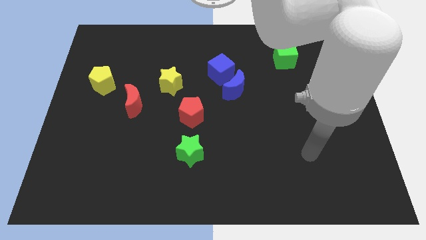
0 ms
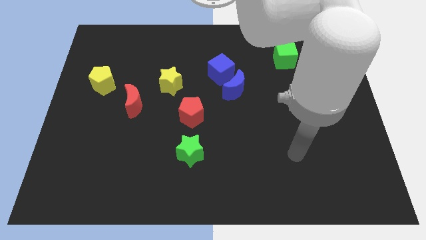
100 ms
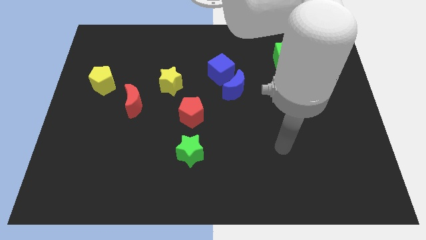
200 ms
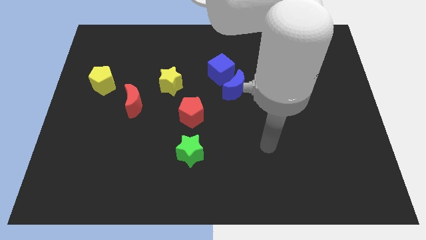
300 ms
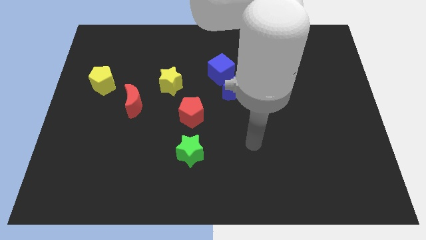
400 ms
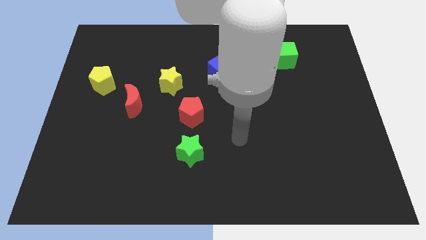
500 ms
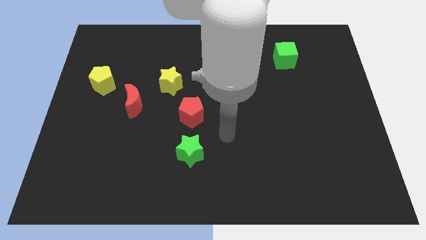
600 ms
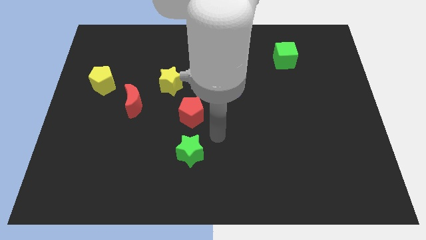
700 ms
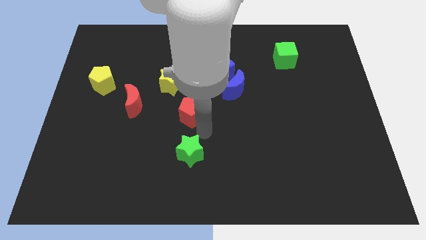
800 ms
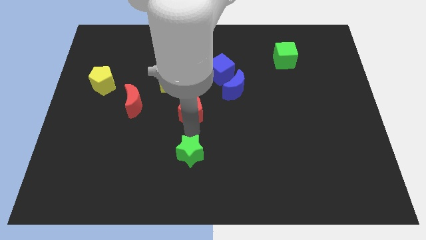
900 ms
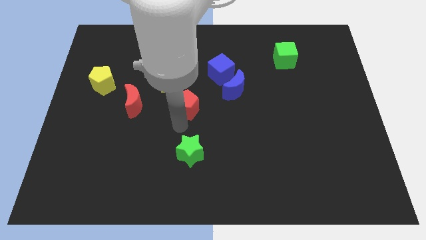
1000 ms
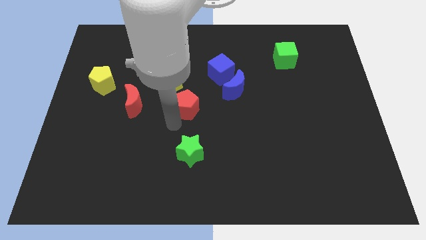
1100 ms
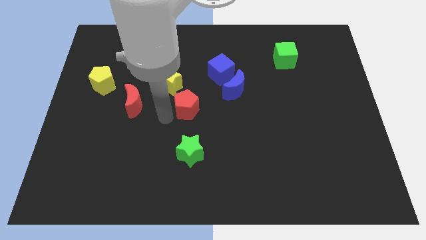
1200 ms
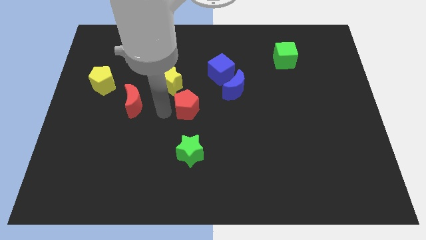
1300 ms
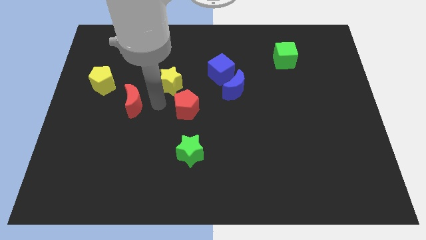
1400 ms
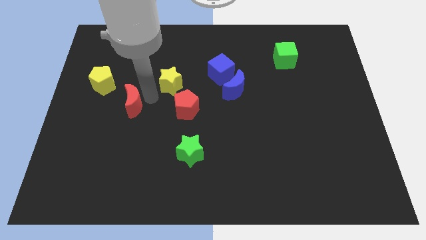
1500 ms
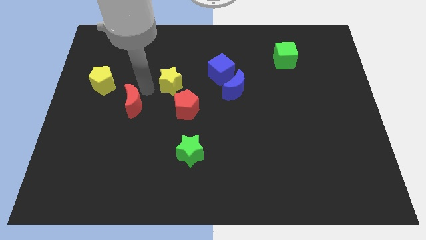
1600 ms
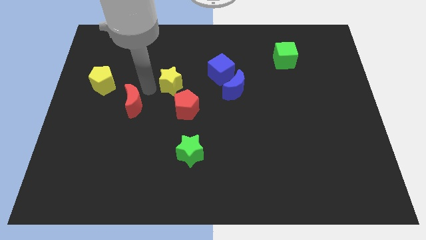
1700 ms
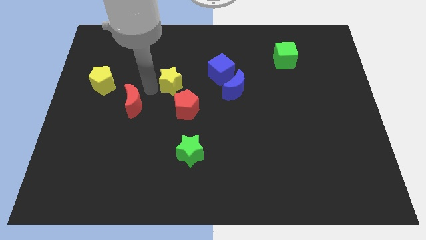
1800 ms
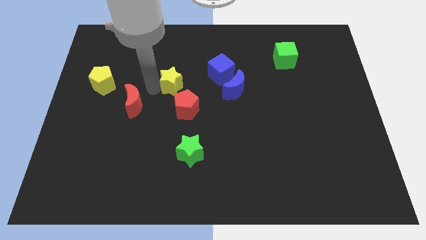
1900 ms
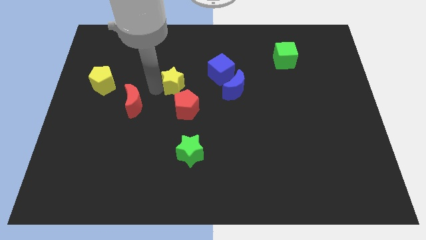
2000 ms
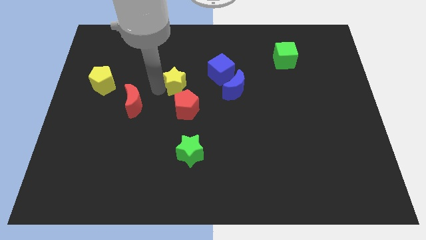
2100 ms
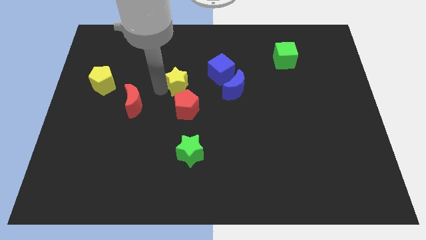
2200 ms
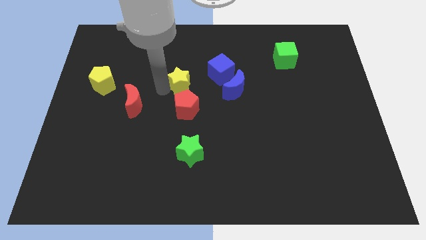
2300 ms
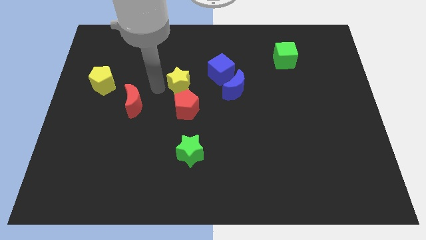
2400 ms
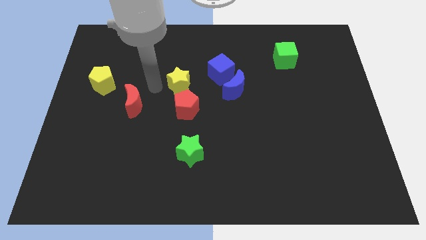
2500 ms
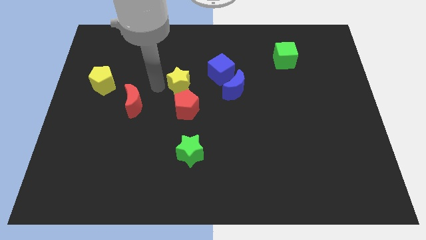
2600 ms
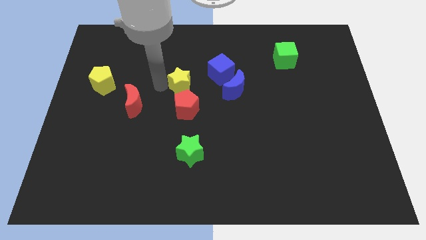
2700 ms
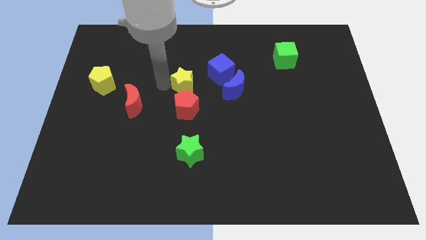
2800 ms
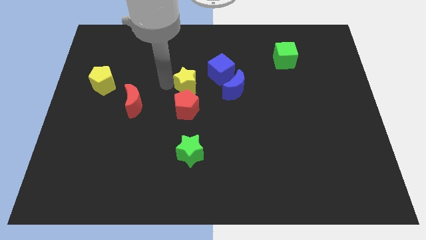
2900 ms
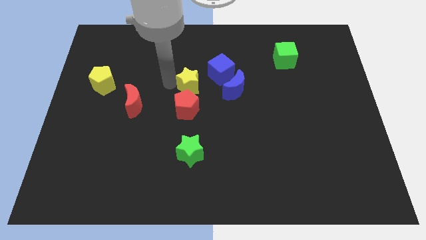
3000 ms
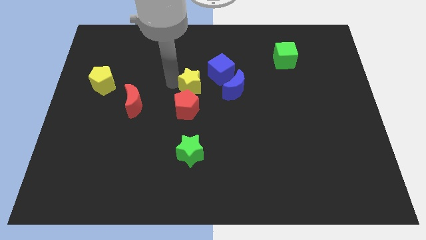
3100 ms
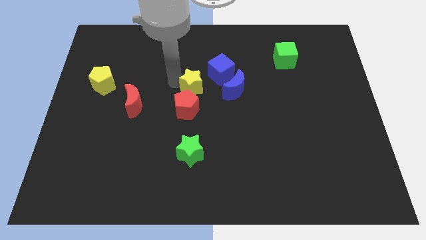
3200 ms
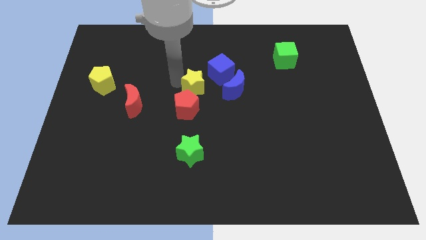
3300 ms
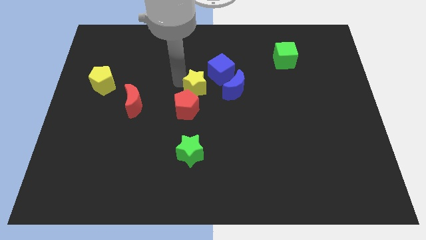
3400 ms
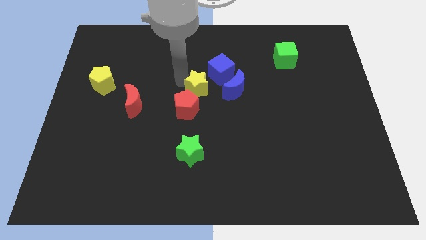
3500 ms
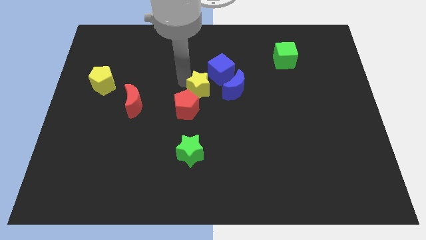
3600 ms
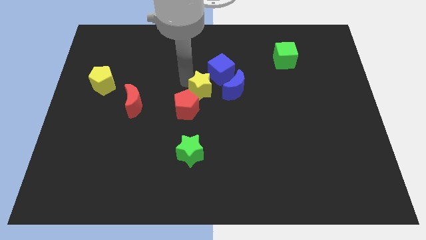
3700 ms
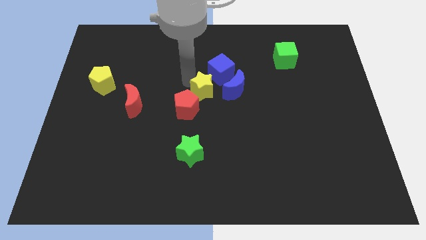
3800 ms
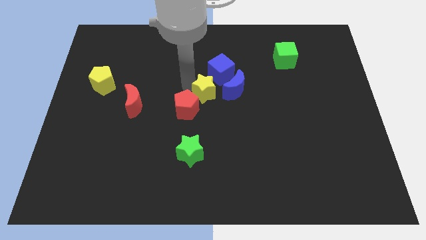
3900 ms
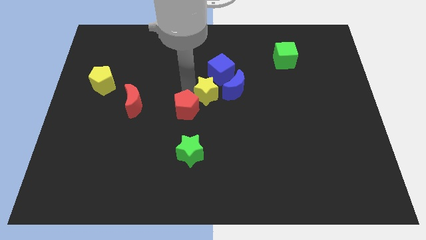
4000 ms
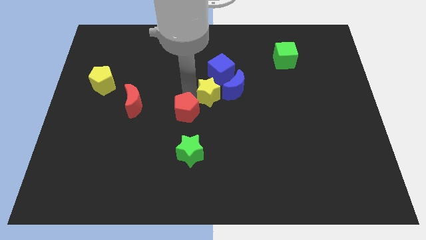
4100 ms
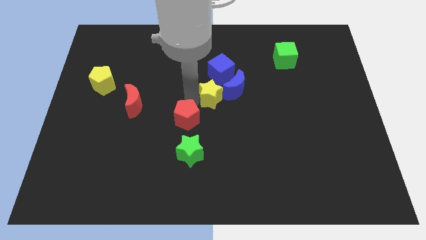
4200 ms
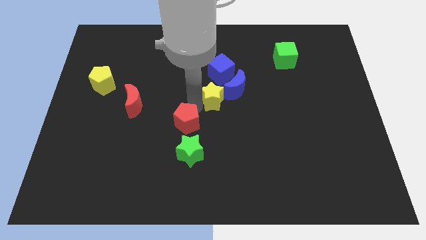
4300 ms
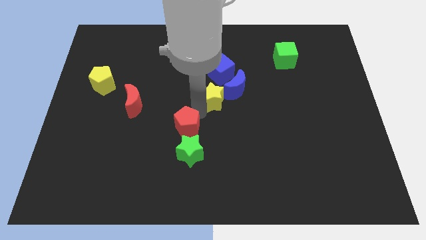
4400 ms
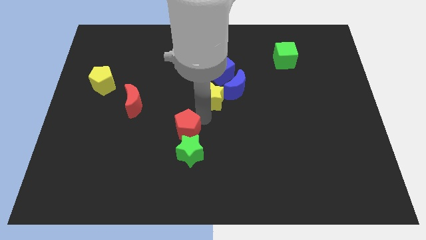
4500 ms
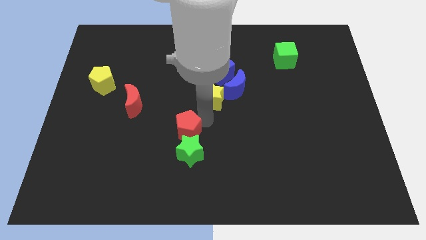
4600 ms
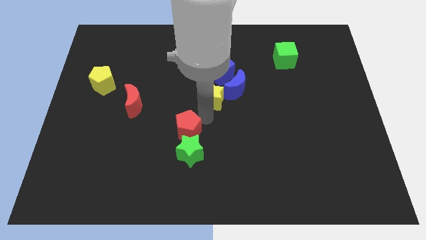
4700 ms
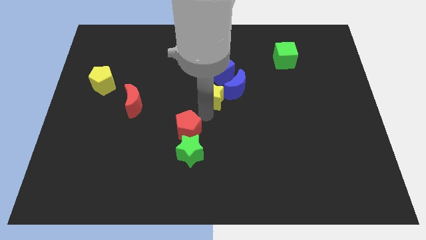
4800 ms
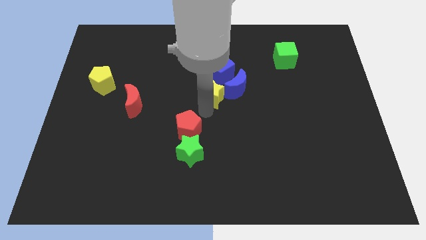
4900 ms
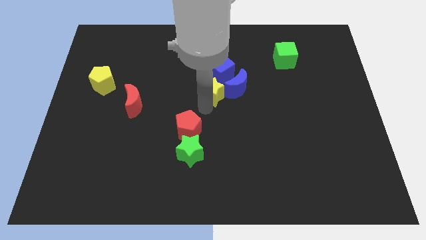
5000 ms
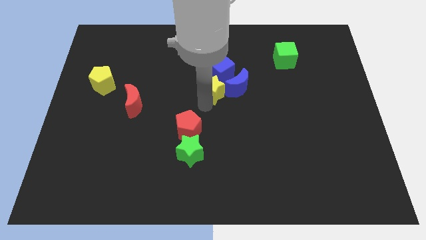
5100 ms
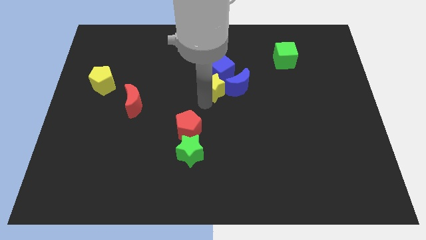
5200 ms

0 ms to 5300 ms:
push the yellow star next to the blue cube

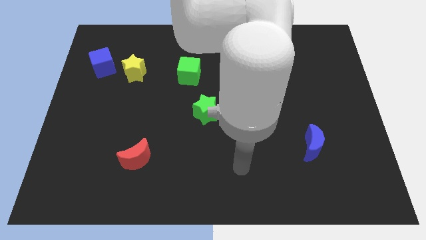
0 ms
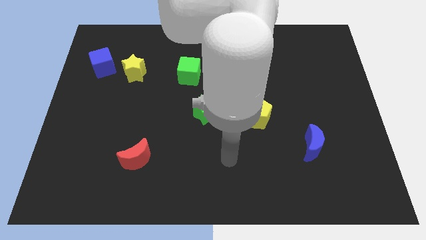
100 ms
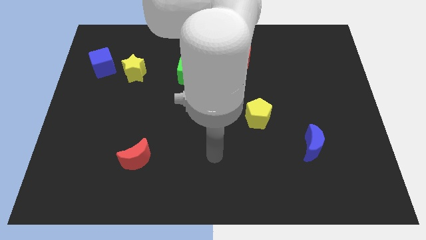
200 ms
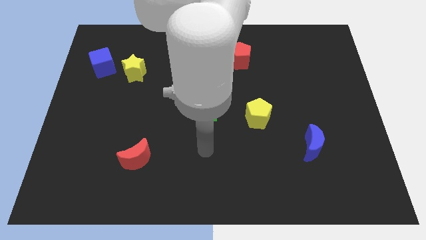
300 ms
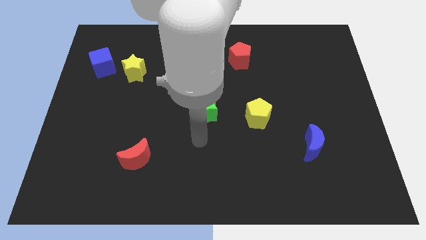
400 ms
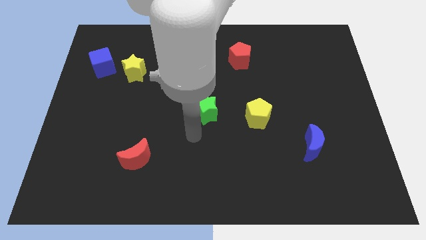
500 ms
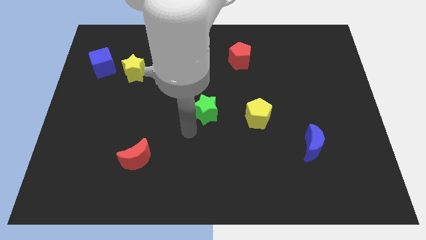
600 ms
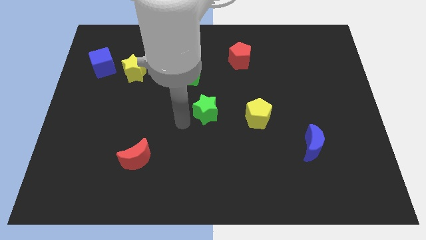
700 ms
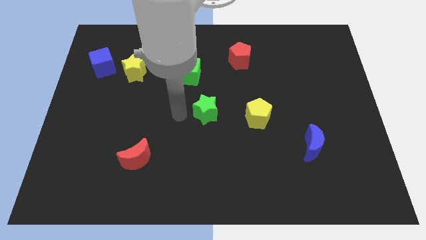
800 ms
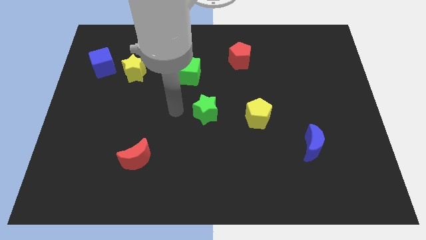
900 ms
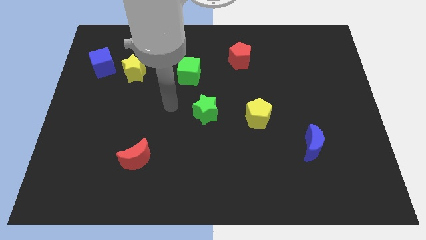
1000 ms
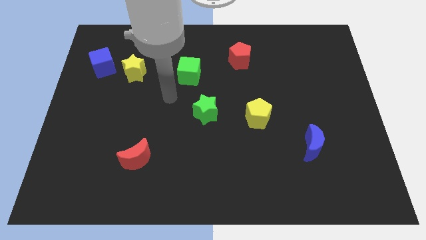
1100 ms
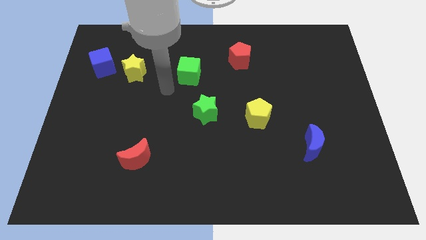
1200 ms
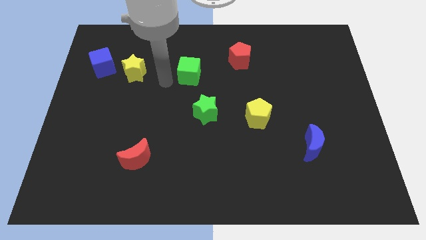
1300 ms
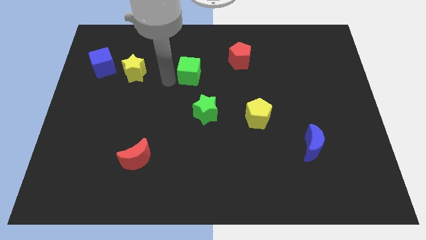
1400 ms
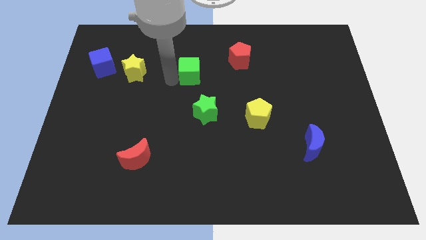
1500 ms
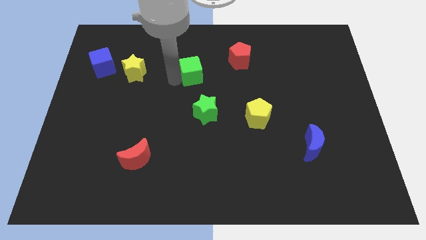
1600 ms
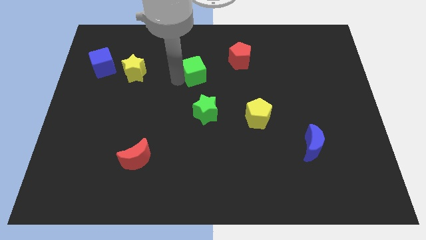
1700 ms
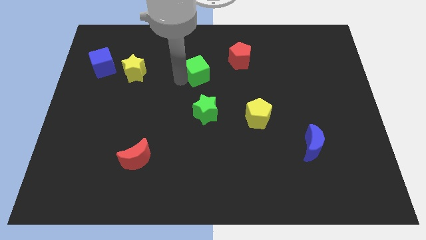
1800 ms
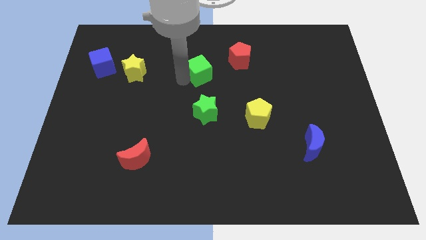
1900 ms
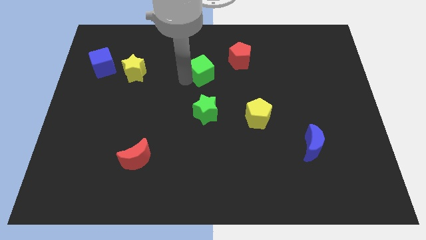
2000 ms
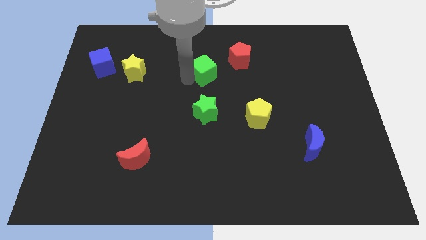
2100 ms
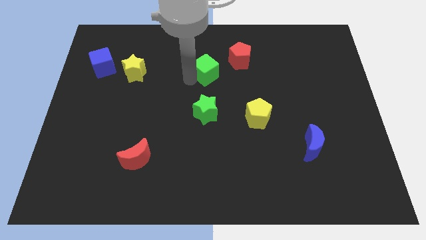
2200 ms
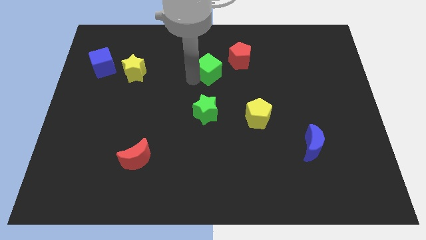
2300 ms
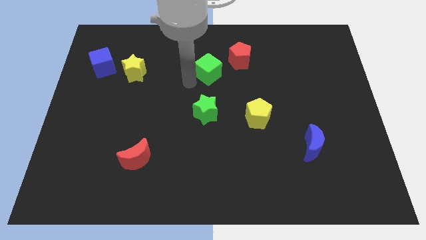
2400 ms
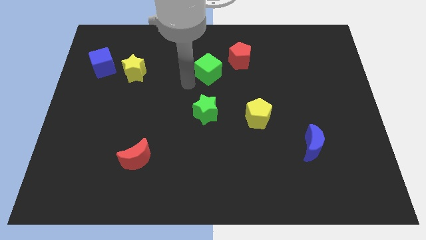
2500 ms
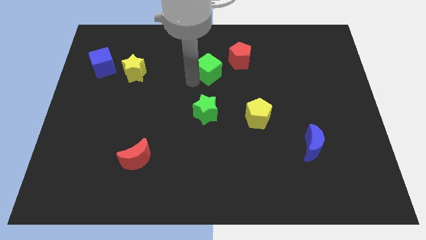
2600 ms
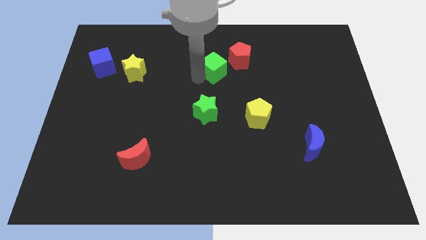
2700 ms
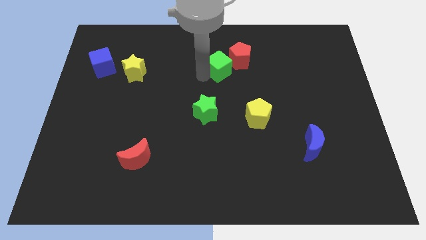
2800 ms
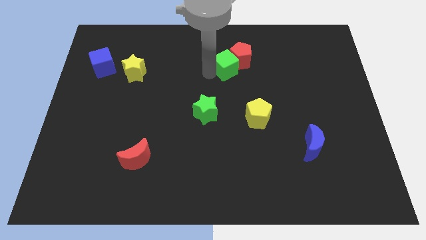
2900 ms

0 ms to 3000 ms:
move the green cube close to the red pentagon
